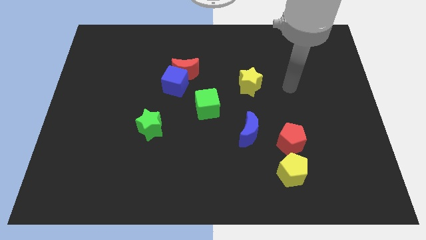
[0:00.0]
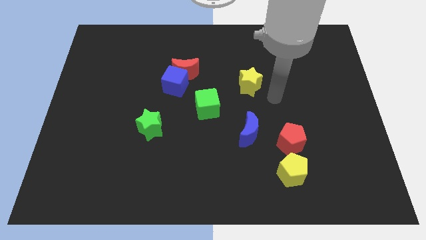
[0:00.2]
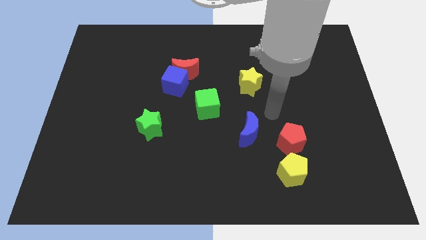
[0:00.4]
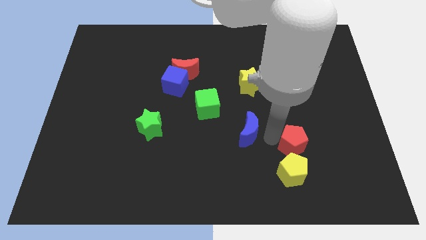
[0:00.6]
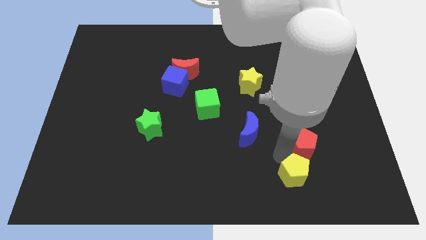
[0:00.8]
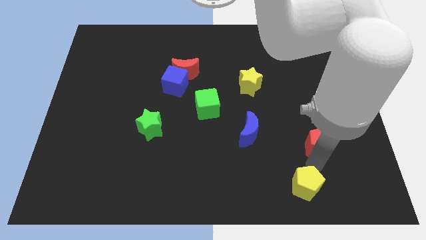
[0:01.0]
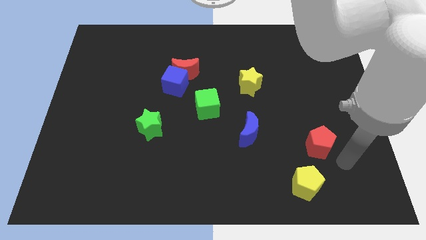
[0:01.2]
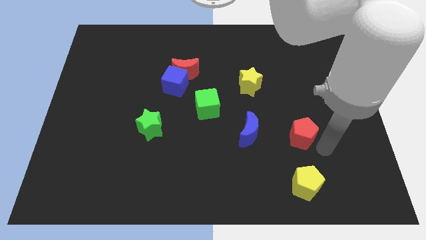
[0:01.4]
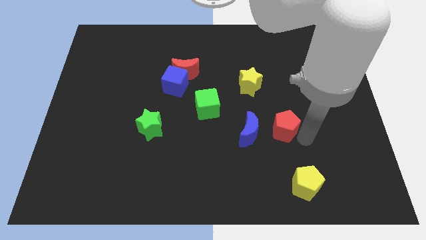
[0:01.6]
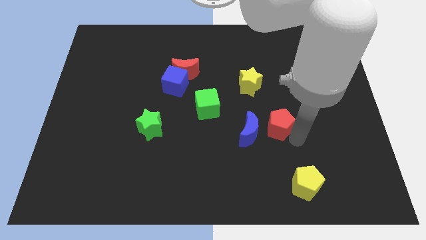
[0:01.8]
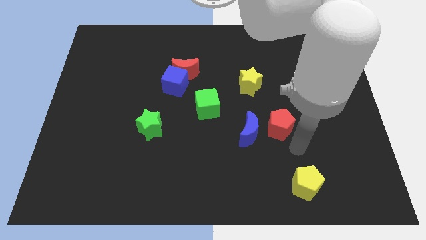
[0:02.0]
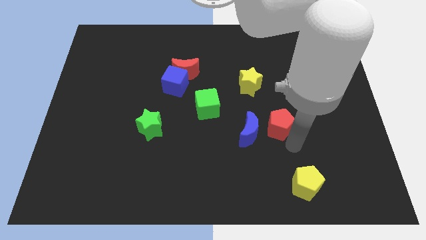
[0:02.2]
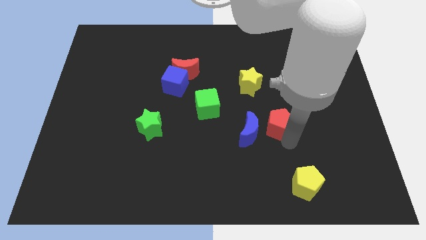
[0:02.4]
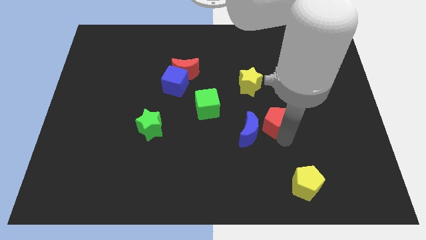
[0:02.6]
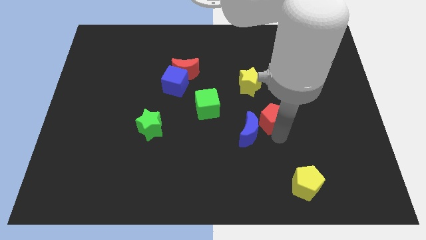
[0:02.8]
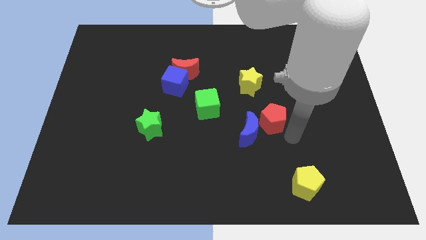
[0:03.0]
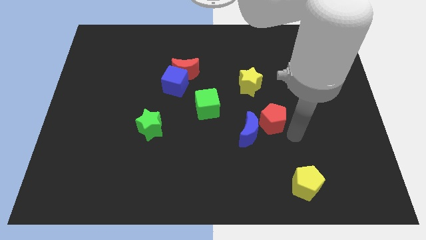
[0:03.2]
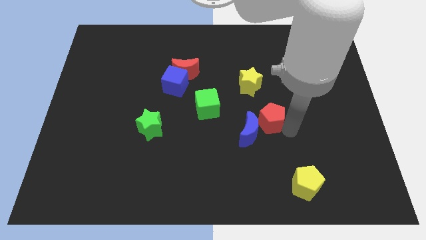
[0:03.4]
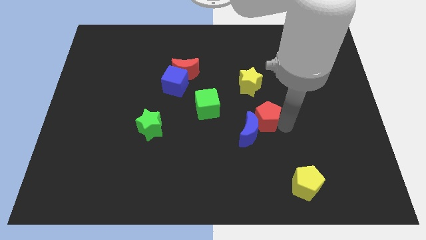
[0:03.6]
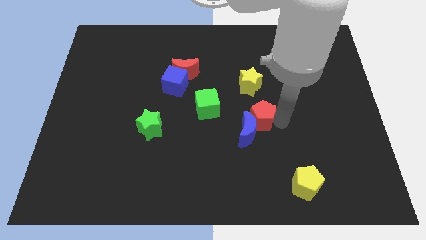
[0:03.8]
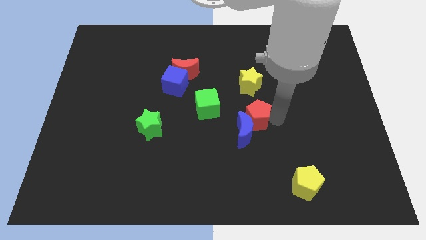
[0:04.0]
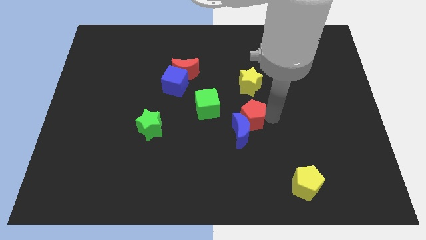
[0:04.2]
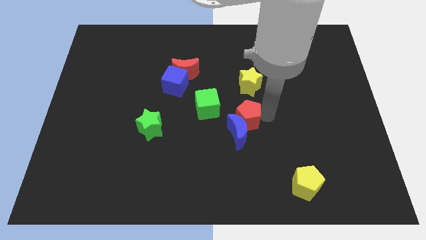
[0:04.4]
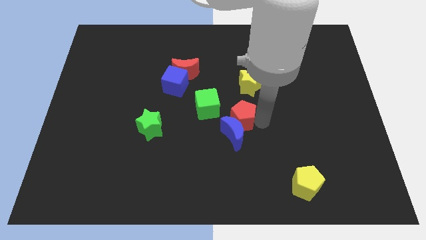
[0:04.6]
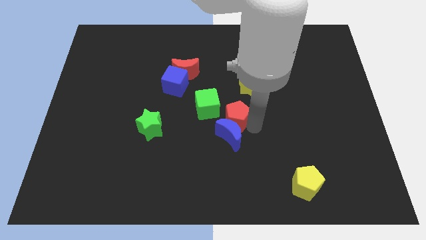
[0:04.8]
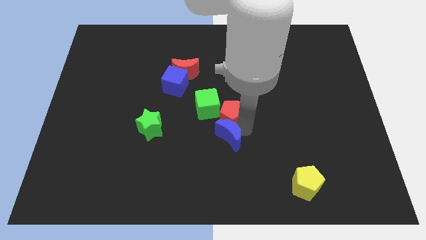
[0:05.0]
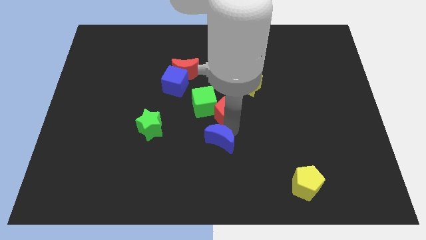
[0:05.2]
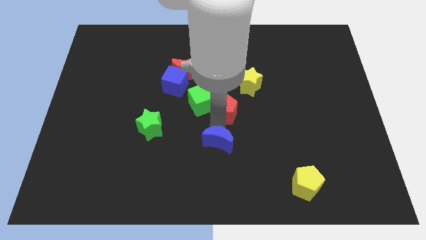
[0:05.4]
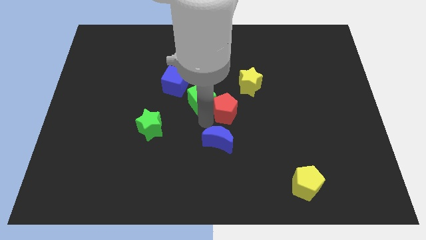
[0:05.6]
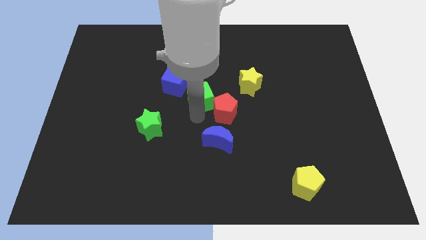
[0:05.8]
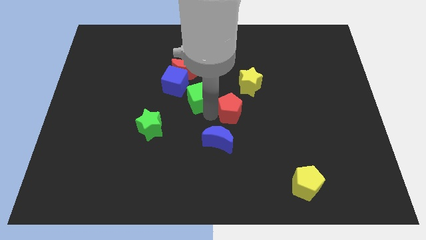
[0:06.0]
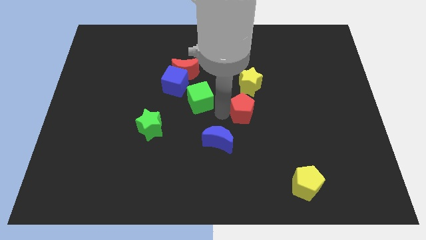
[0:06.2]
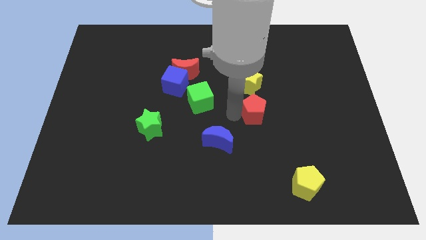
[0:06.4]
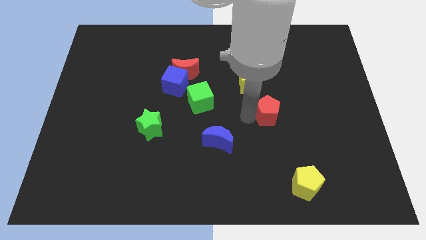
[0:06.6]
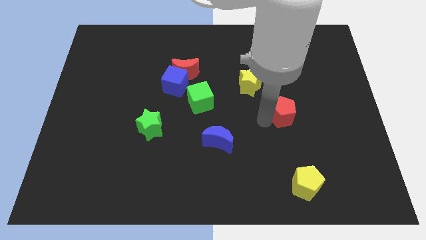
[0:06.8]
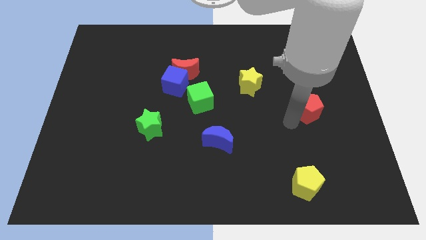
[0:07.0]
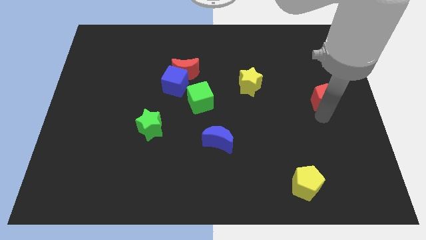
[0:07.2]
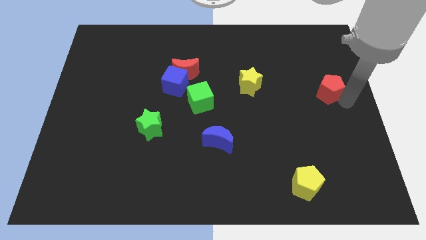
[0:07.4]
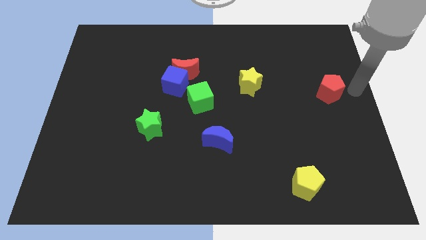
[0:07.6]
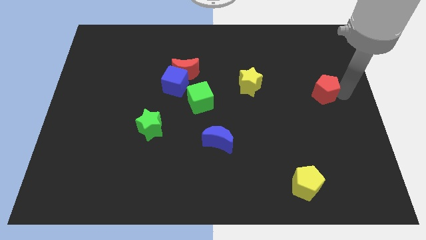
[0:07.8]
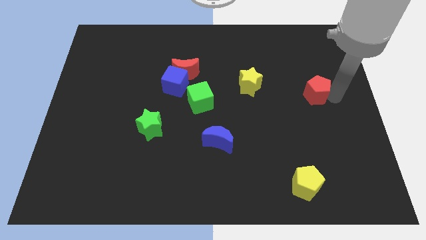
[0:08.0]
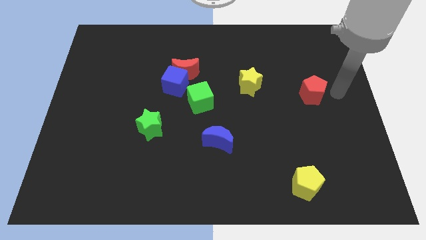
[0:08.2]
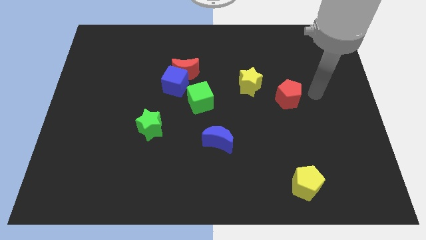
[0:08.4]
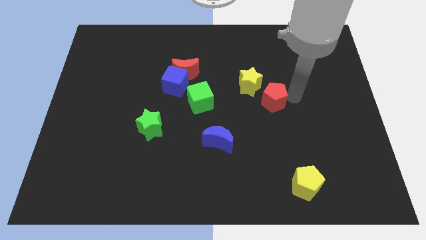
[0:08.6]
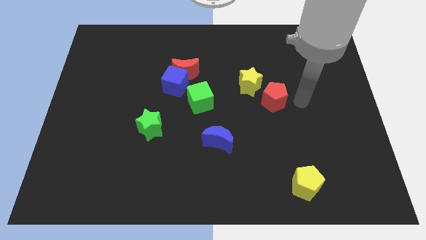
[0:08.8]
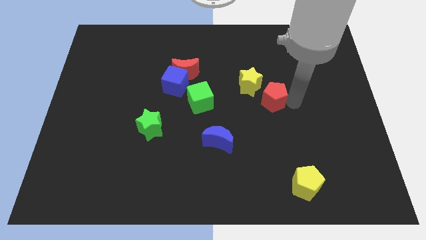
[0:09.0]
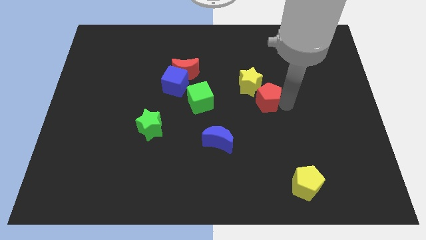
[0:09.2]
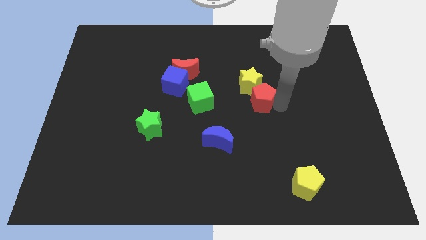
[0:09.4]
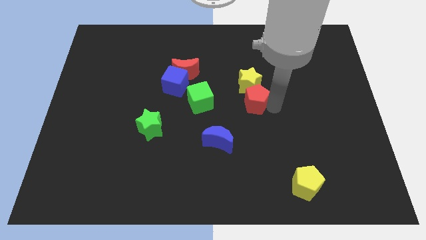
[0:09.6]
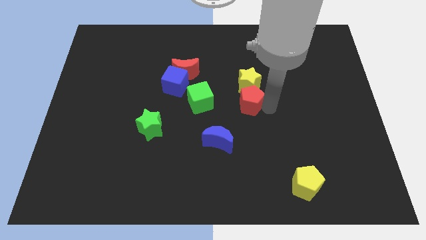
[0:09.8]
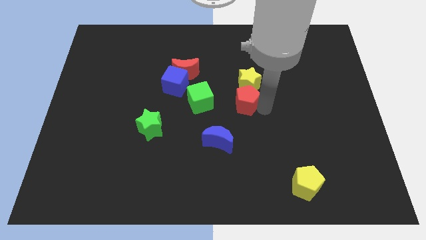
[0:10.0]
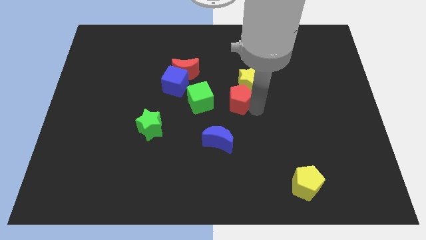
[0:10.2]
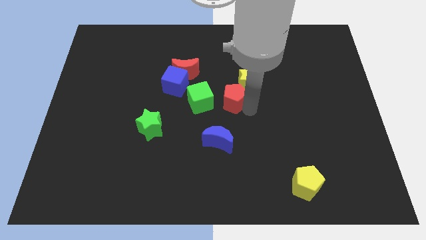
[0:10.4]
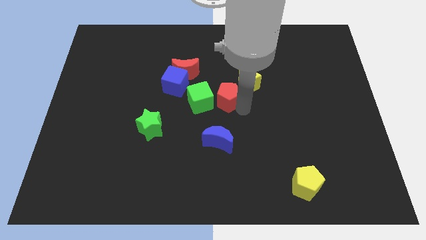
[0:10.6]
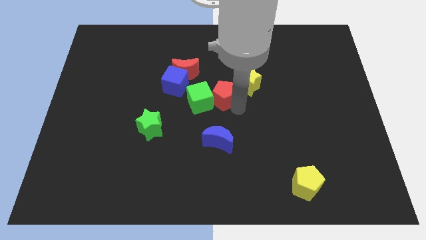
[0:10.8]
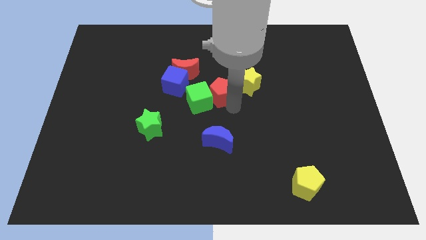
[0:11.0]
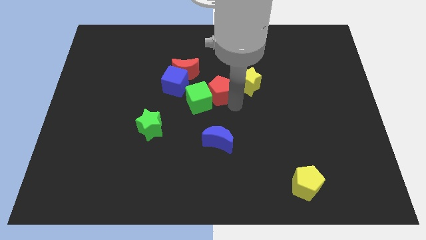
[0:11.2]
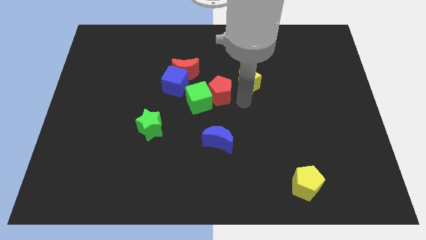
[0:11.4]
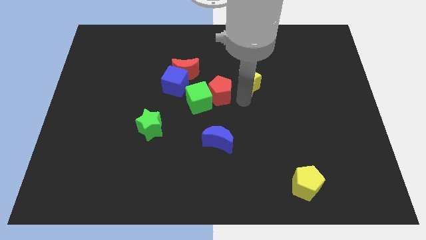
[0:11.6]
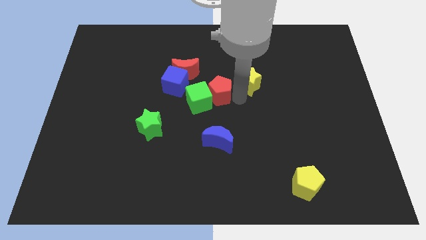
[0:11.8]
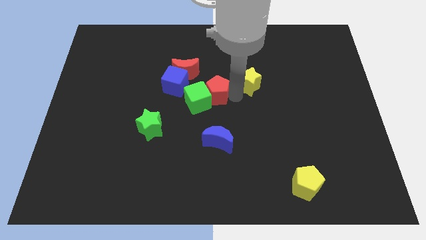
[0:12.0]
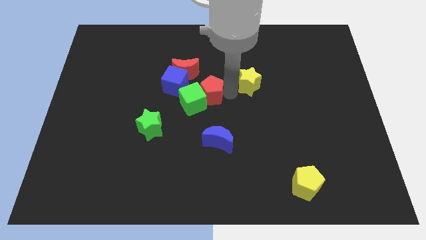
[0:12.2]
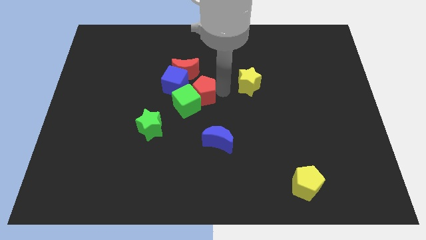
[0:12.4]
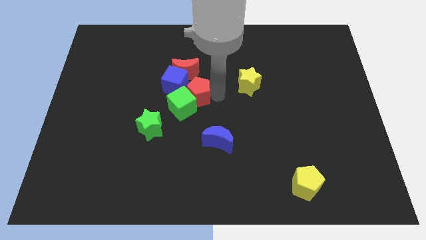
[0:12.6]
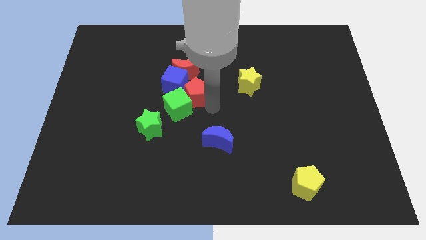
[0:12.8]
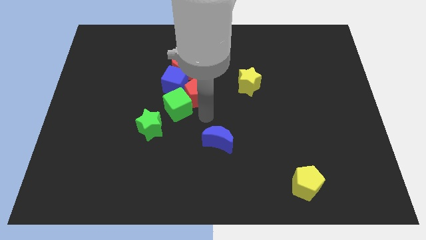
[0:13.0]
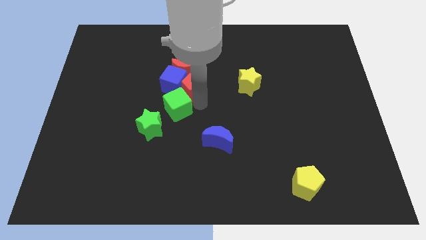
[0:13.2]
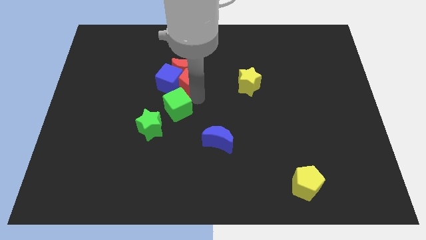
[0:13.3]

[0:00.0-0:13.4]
put the red pentagon towards the red moon
